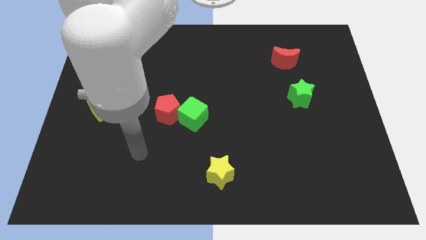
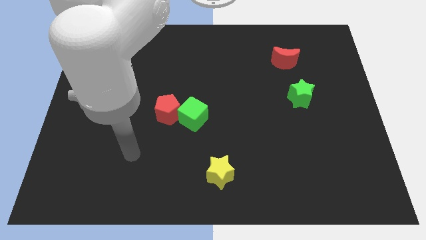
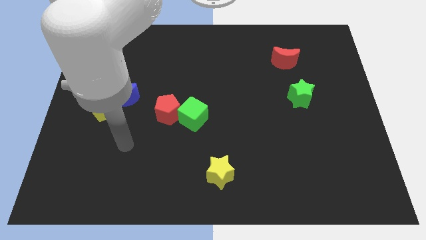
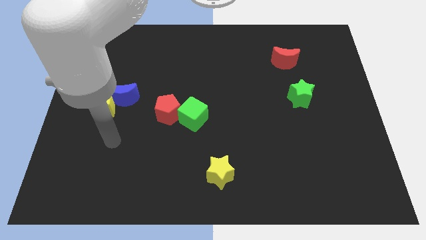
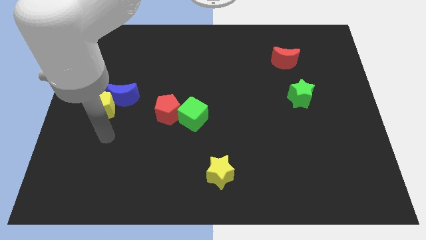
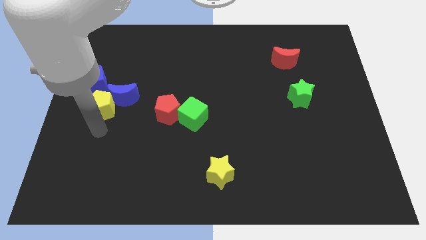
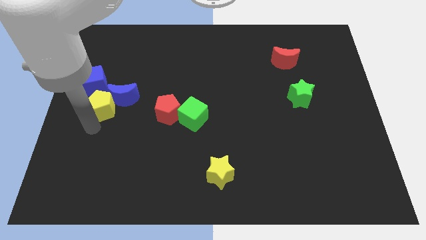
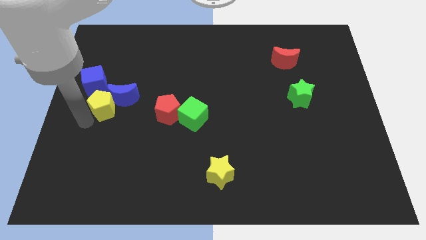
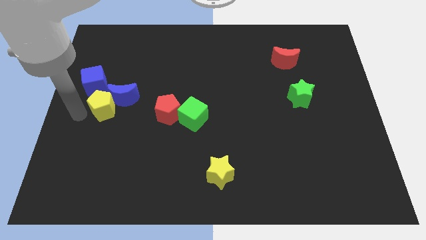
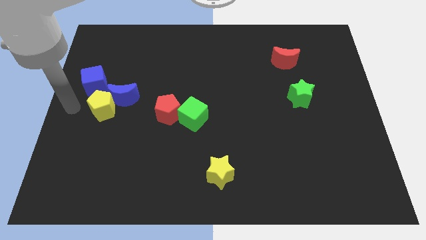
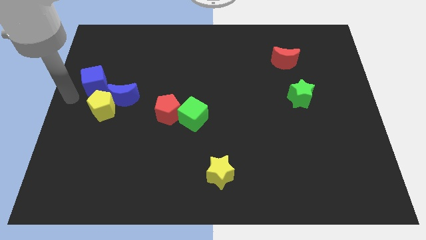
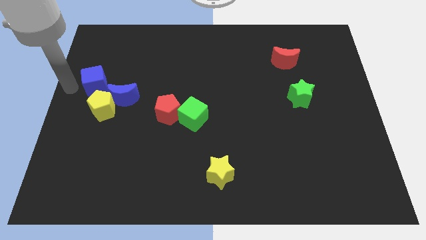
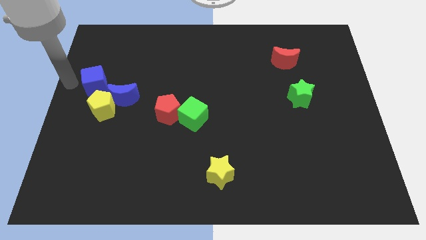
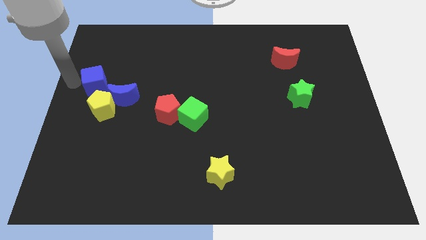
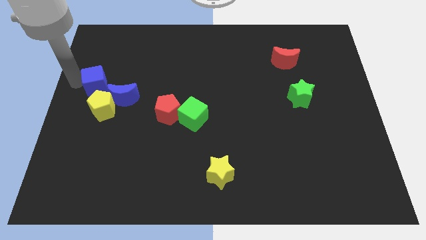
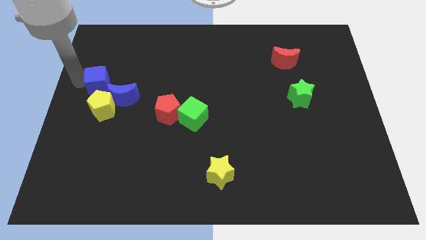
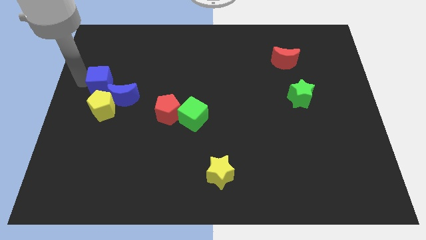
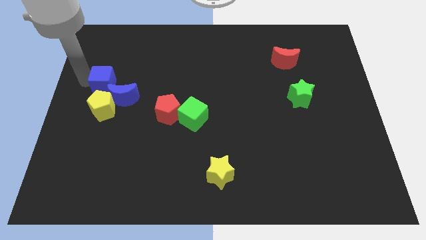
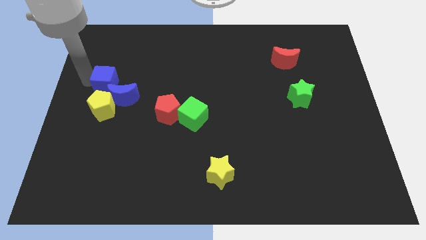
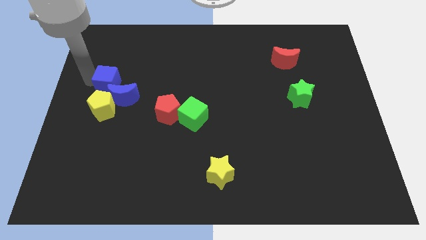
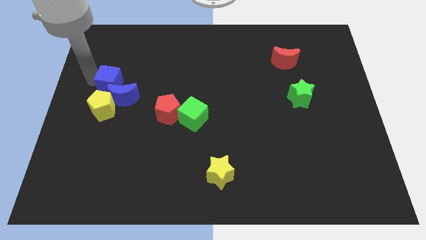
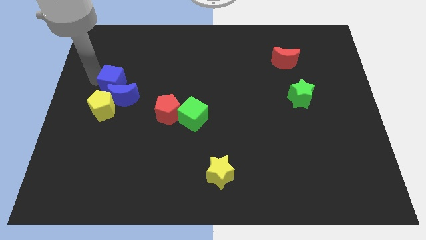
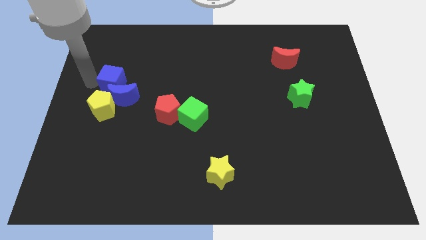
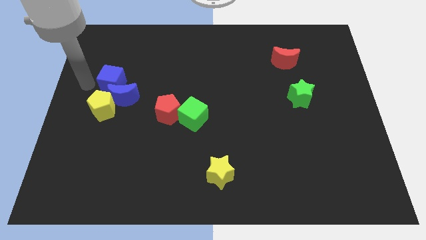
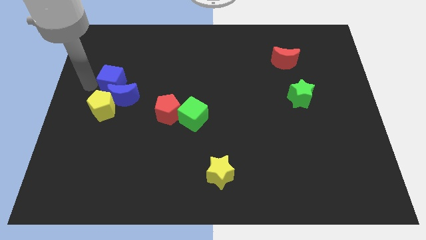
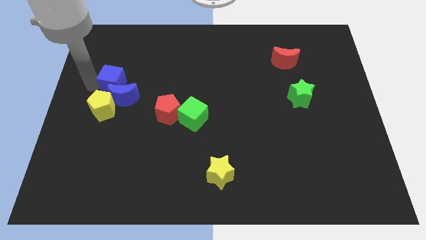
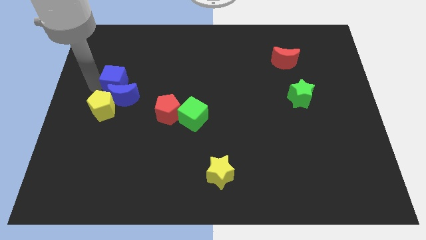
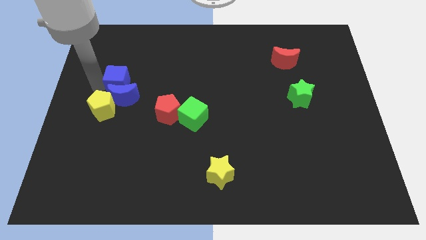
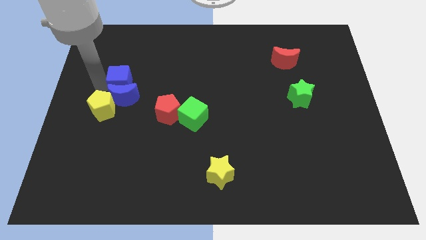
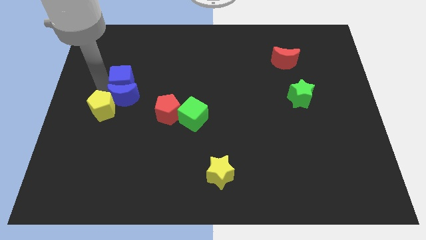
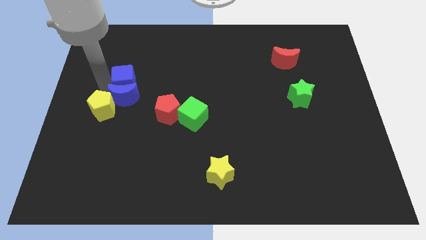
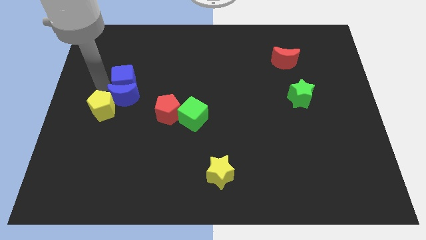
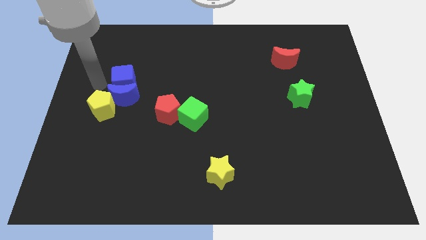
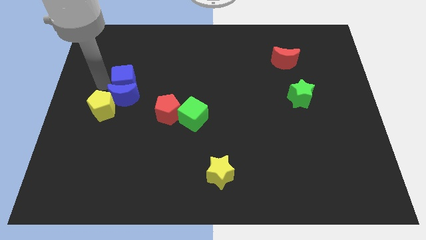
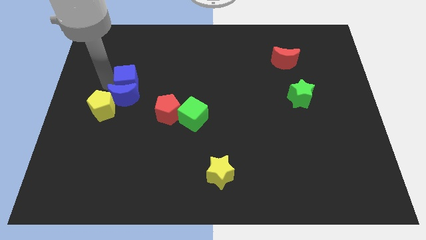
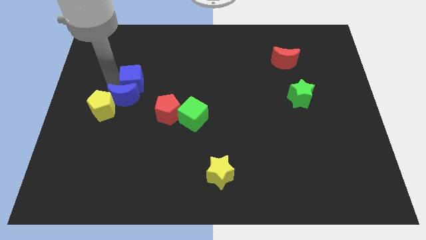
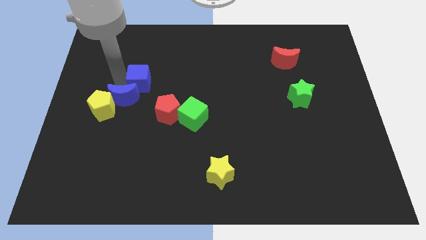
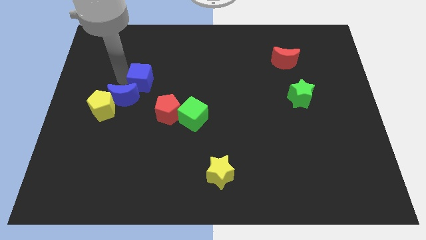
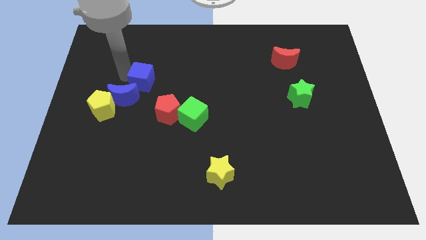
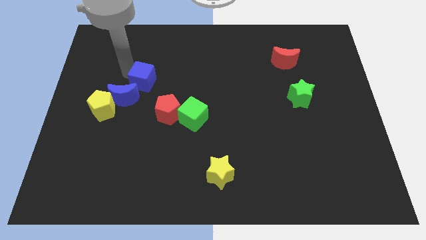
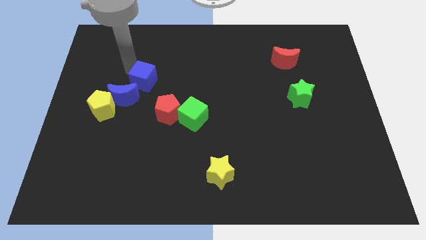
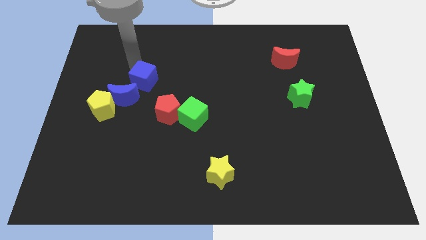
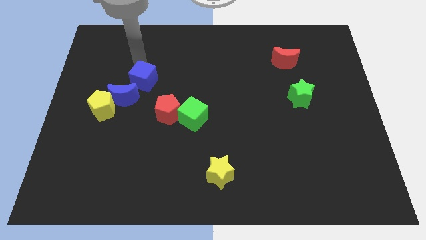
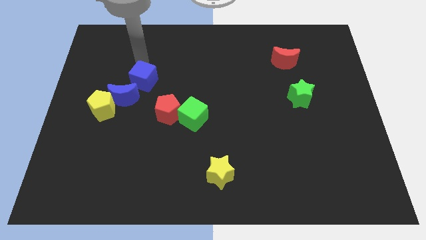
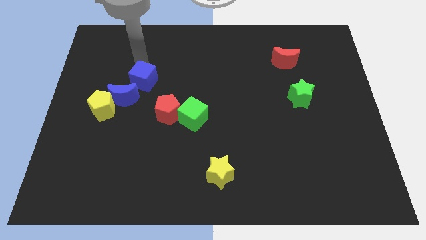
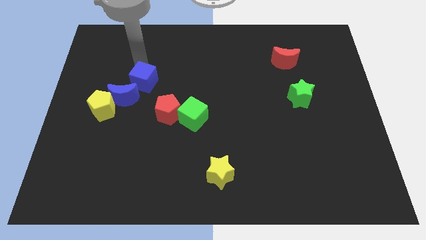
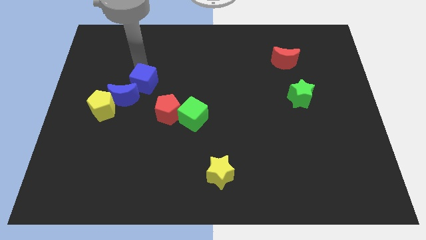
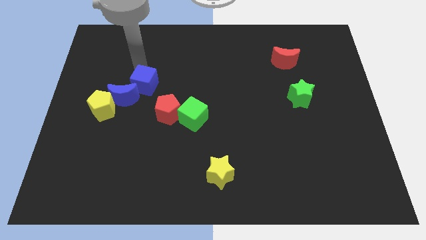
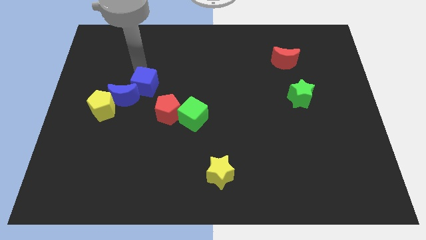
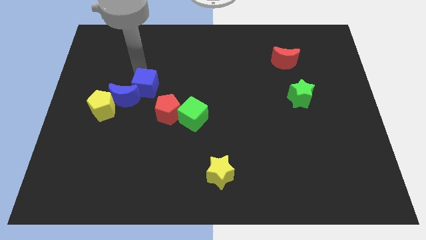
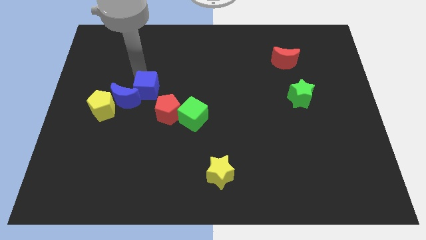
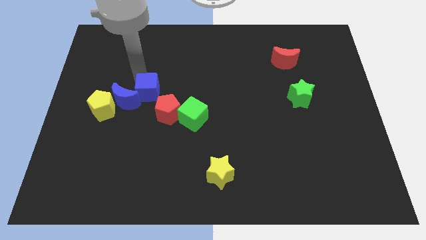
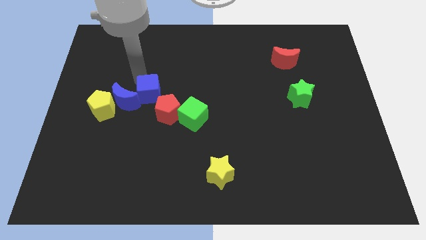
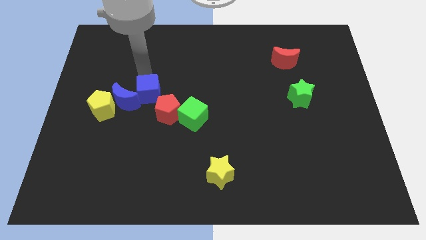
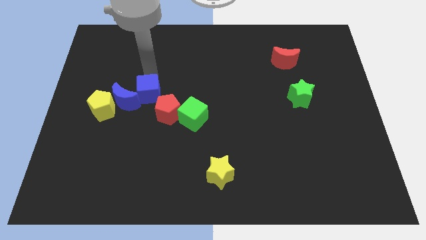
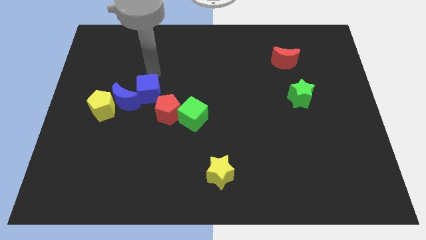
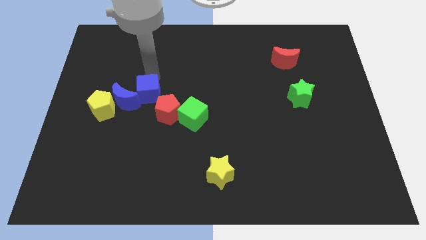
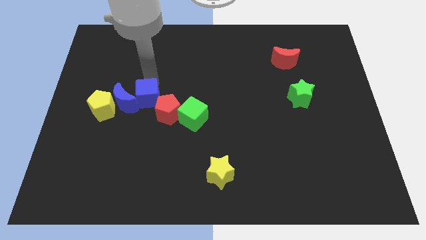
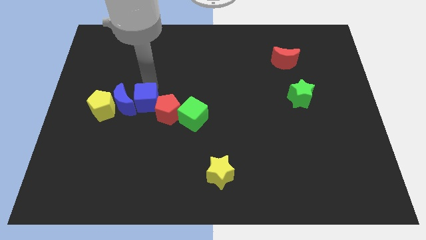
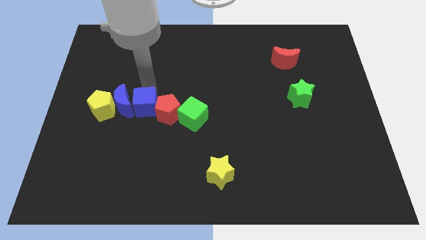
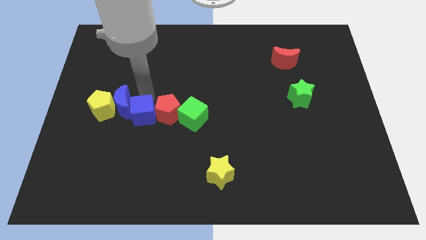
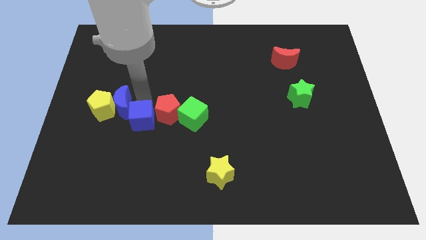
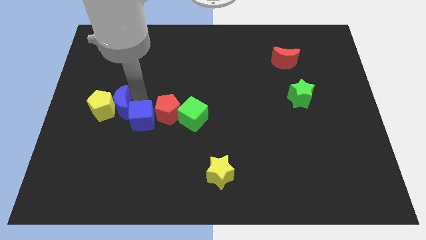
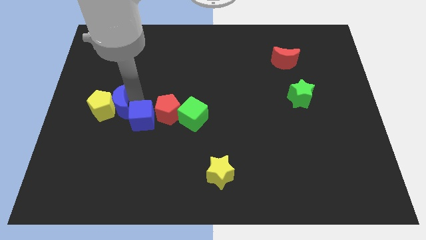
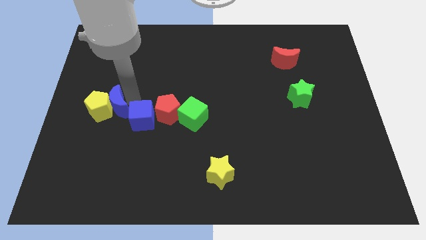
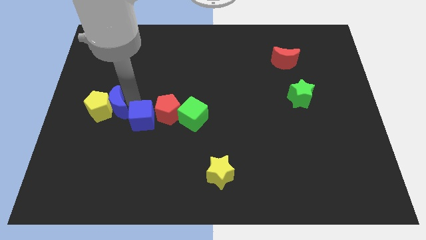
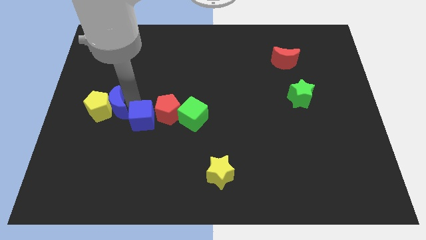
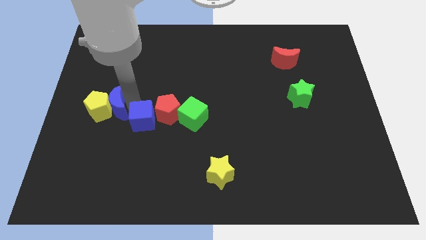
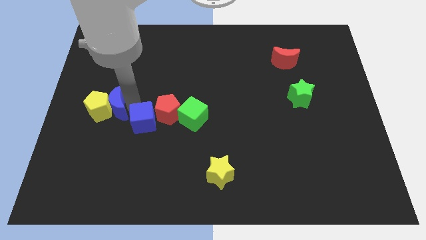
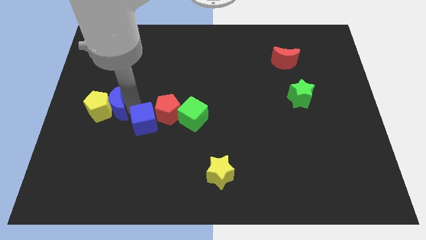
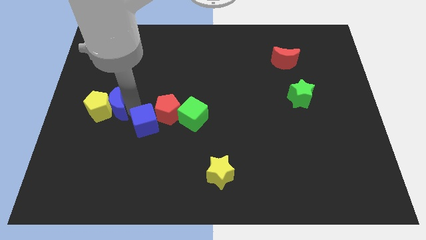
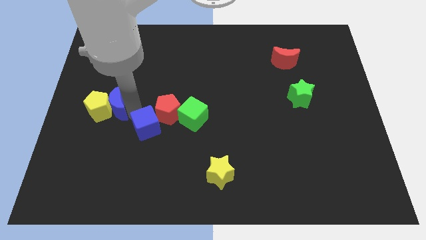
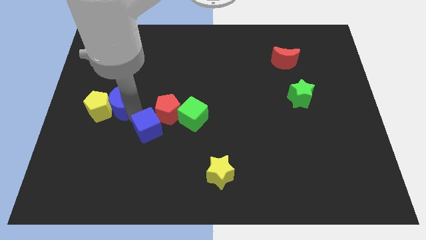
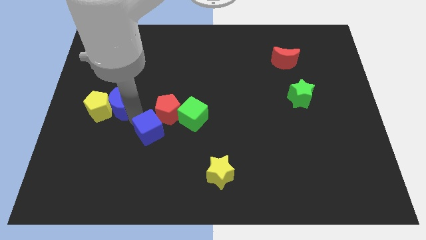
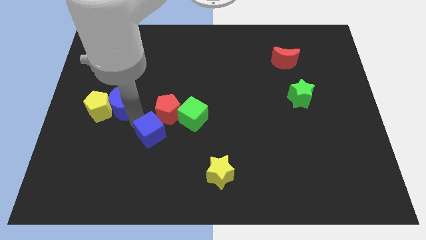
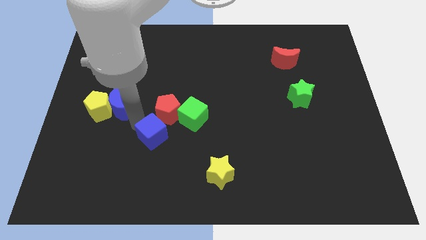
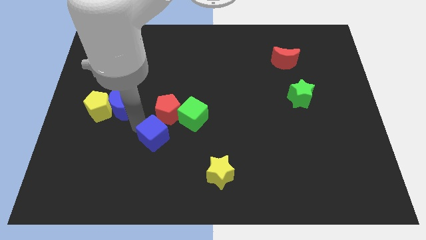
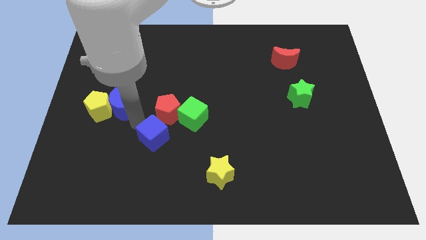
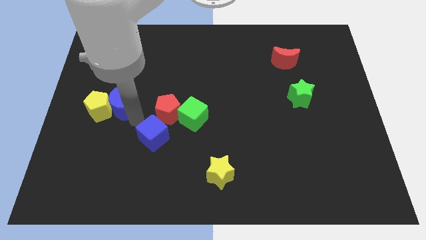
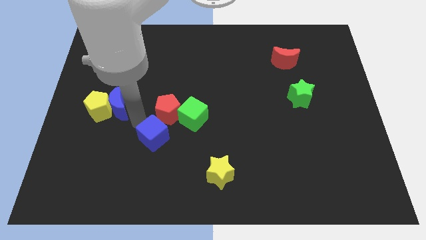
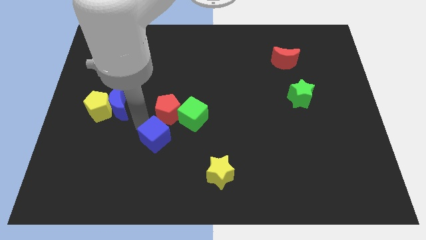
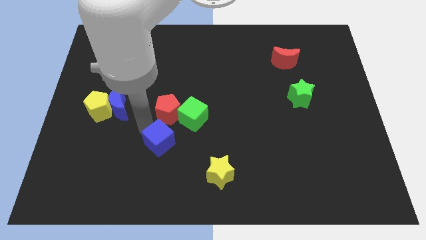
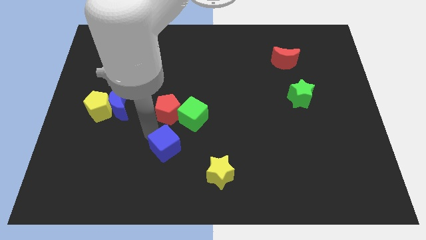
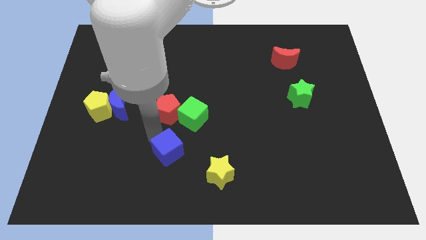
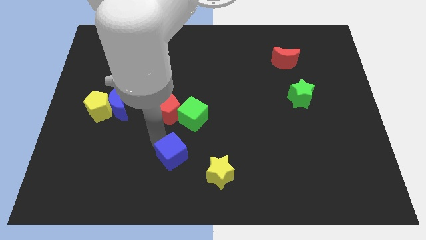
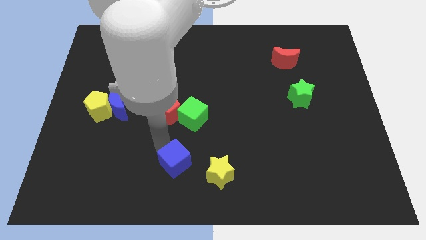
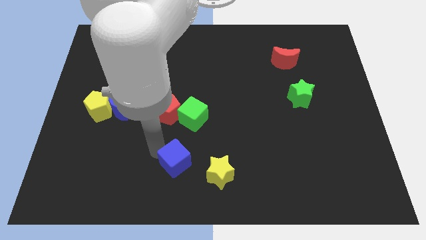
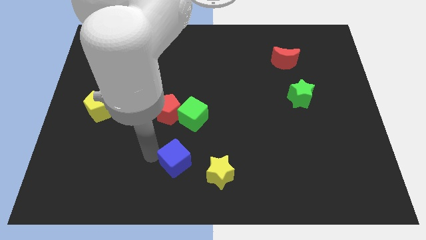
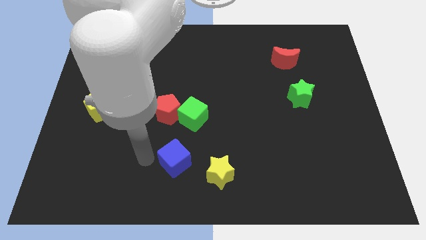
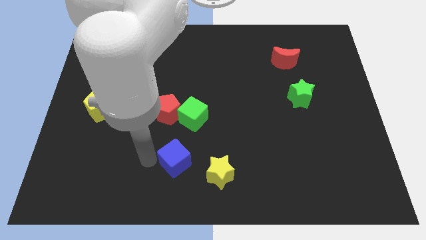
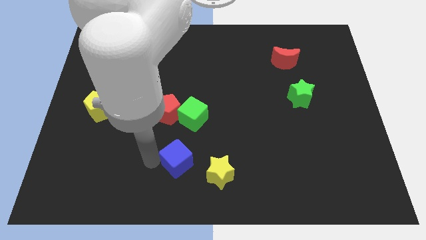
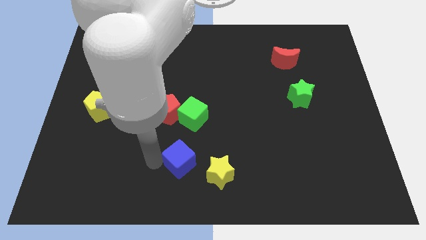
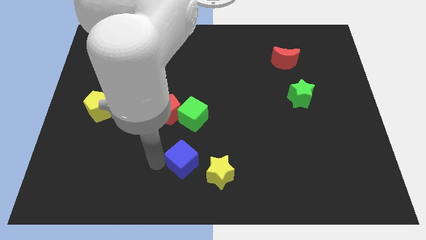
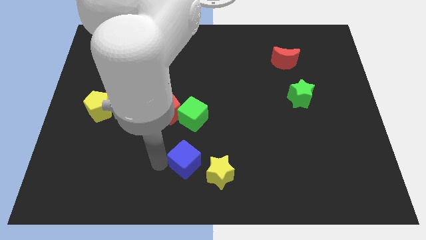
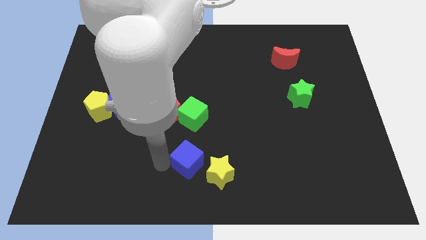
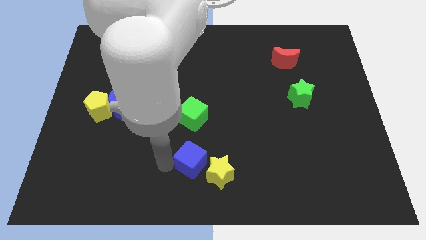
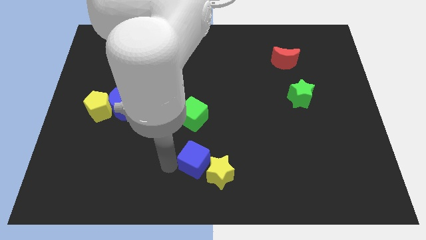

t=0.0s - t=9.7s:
slide the blue cube close to the yellow star
